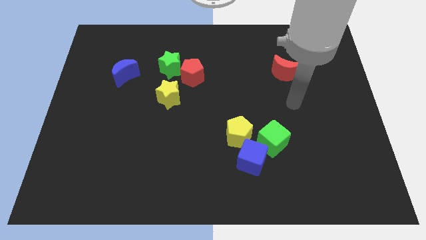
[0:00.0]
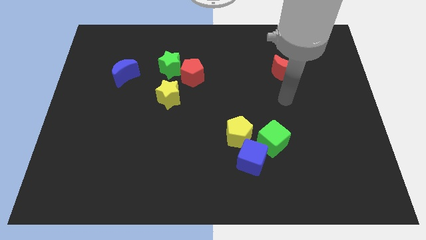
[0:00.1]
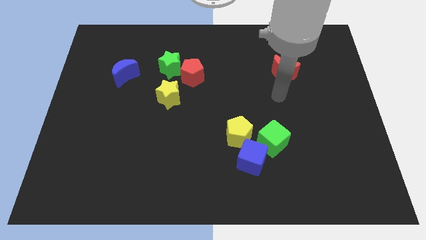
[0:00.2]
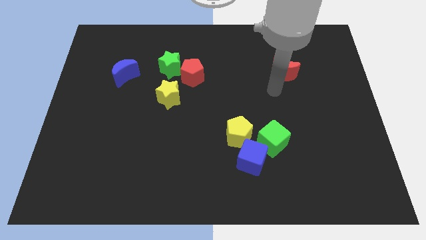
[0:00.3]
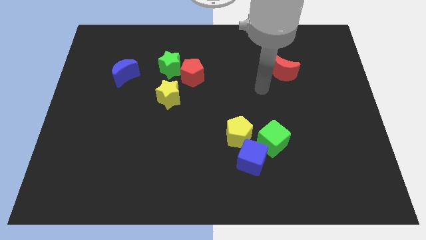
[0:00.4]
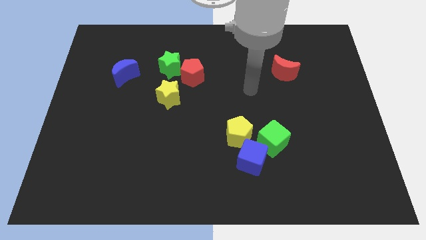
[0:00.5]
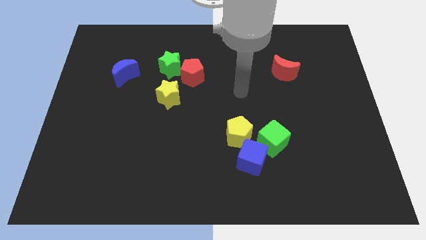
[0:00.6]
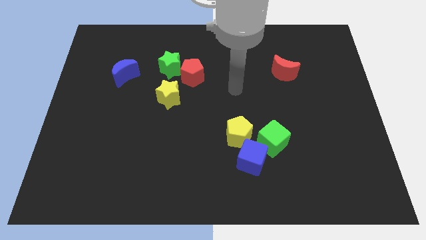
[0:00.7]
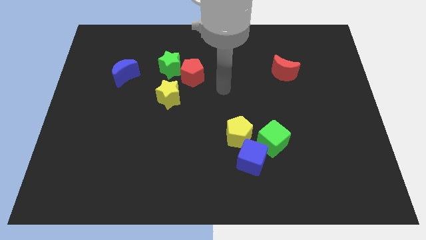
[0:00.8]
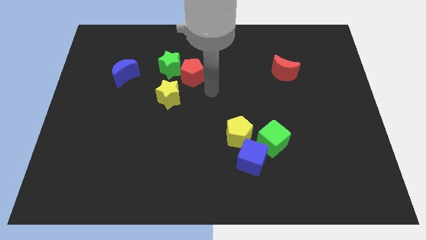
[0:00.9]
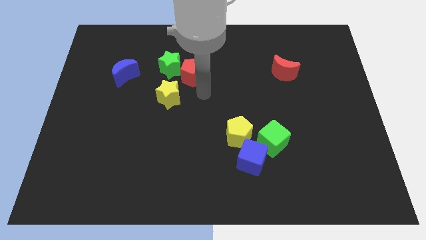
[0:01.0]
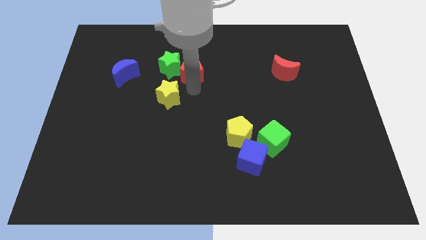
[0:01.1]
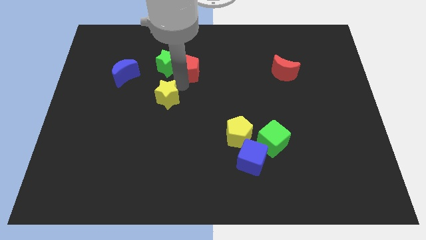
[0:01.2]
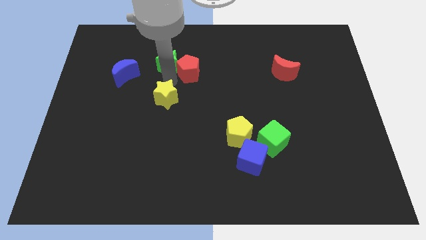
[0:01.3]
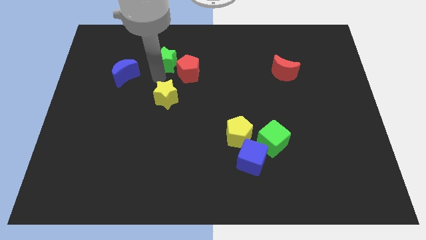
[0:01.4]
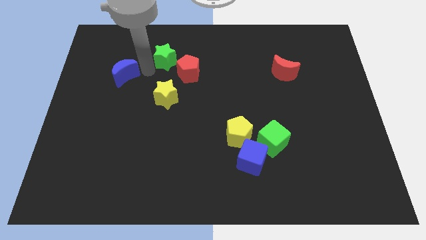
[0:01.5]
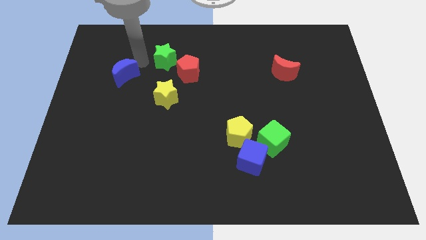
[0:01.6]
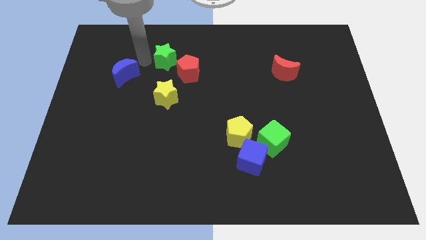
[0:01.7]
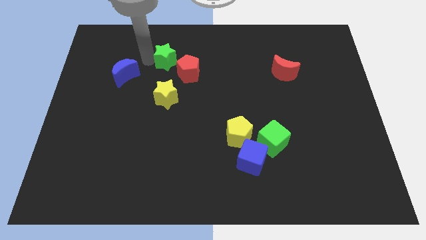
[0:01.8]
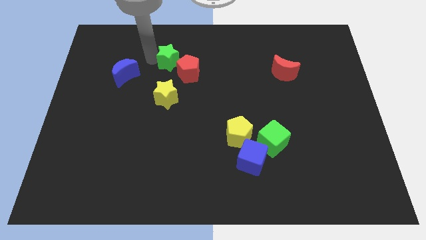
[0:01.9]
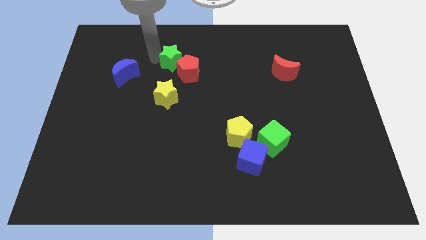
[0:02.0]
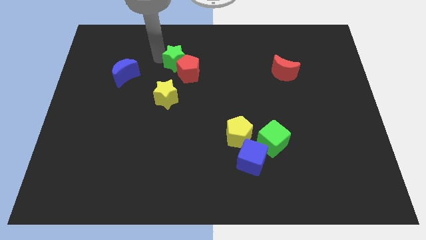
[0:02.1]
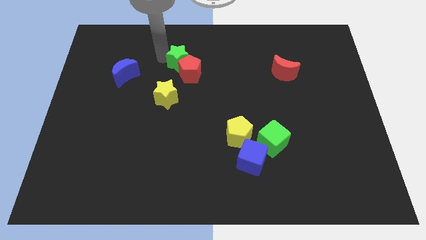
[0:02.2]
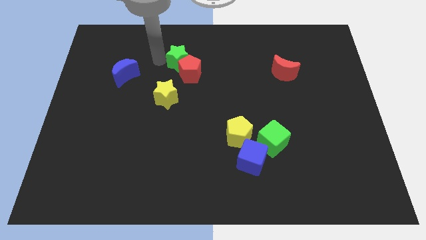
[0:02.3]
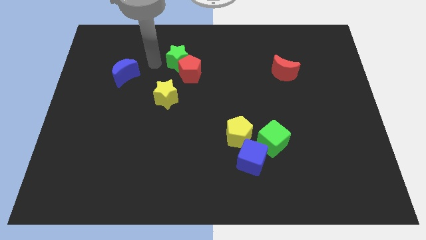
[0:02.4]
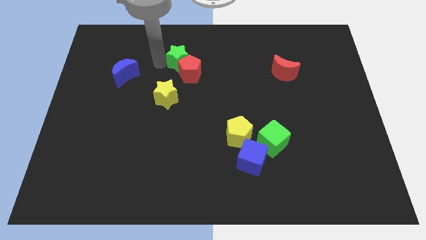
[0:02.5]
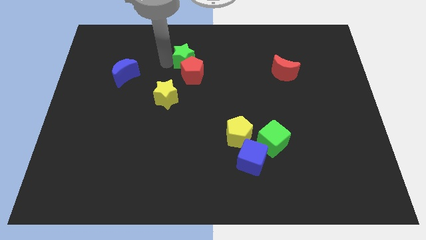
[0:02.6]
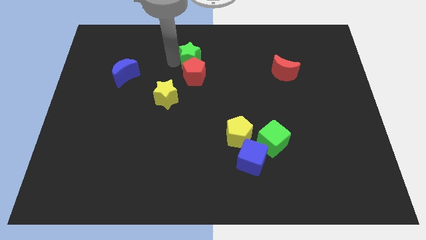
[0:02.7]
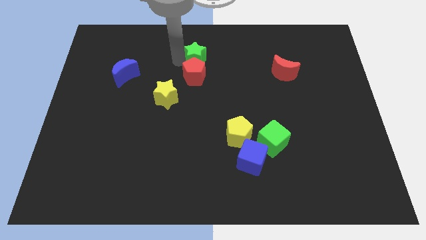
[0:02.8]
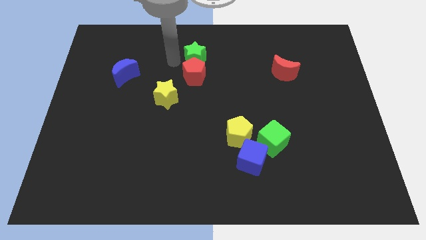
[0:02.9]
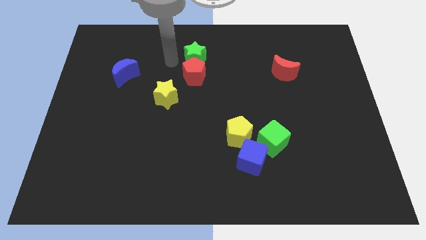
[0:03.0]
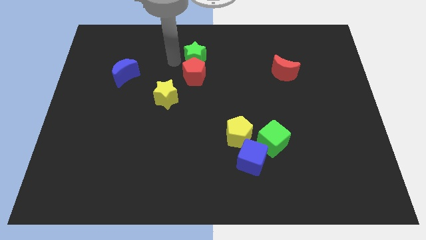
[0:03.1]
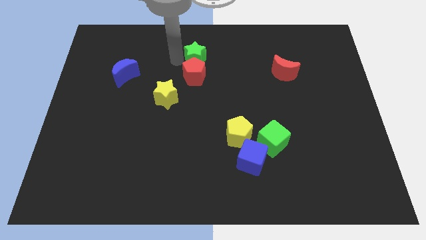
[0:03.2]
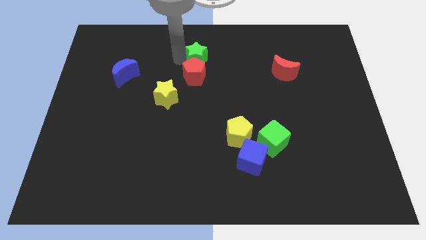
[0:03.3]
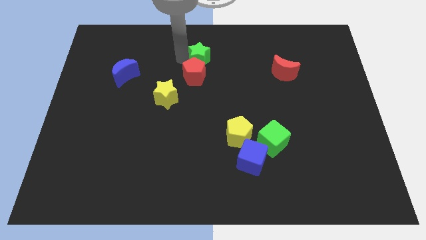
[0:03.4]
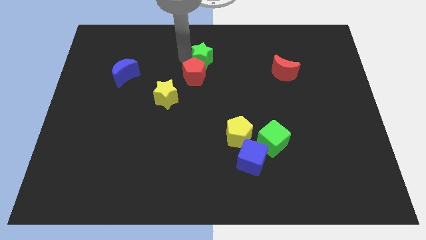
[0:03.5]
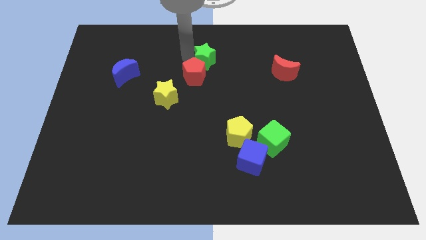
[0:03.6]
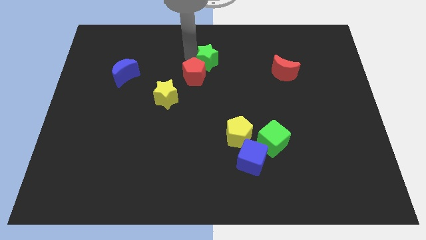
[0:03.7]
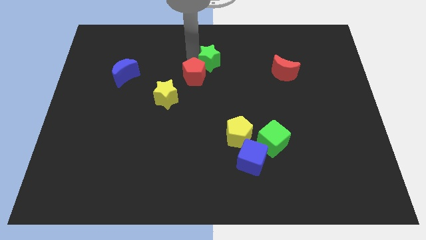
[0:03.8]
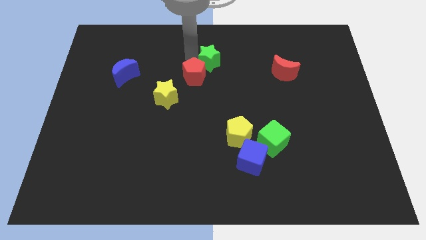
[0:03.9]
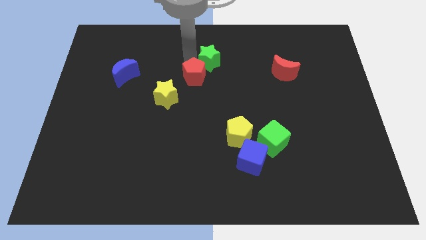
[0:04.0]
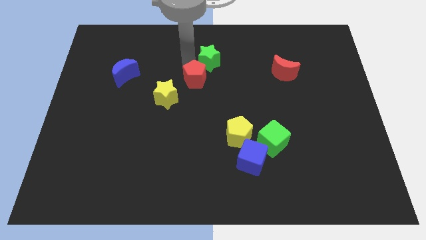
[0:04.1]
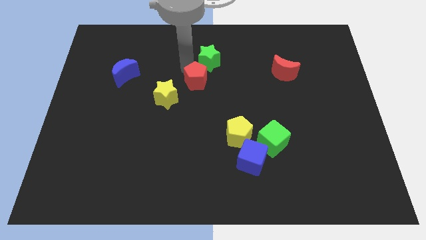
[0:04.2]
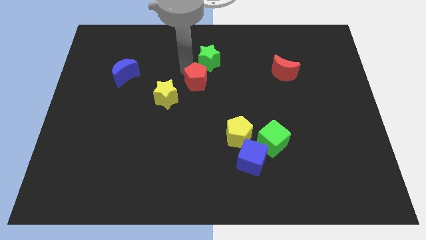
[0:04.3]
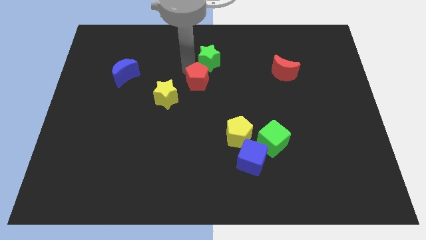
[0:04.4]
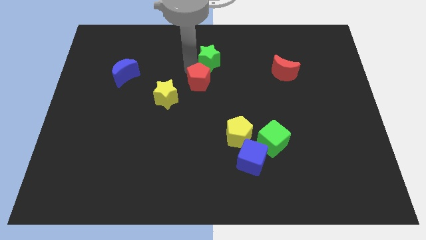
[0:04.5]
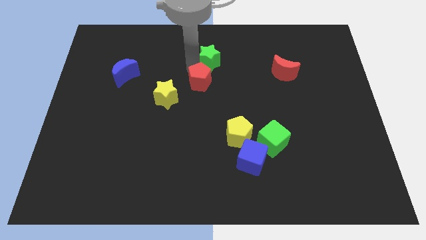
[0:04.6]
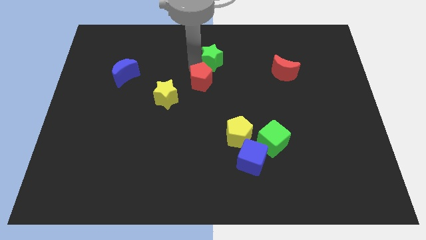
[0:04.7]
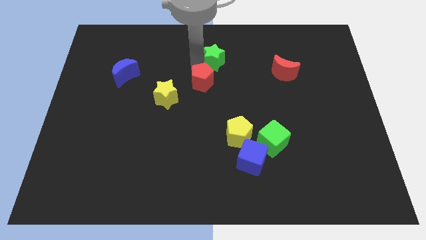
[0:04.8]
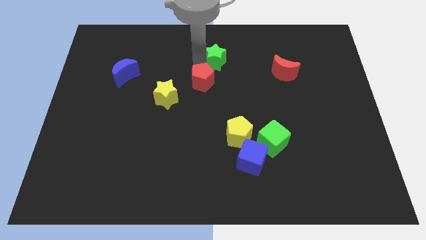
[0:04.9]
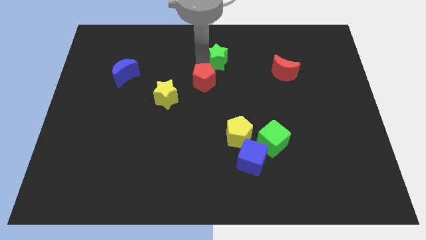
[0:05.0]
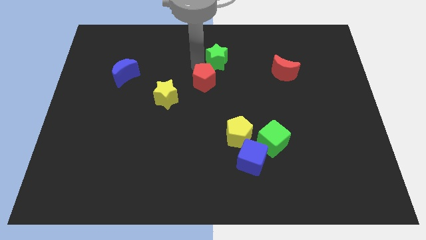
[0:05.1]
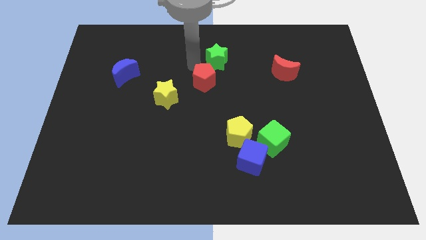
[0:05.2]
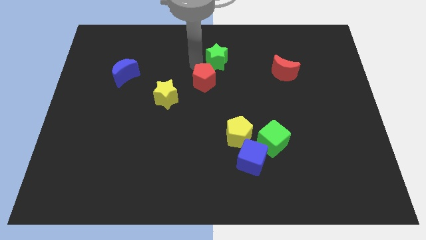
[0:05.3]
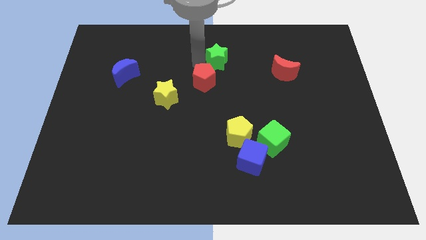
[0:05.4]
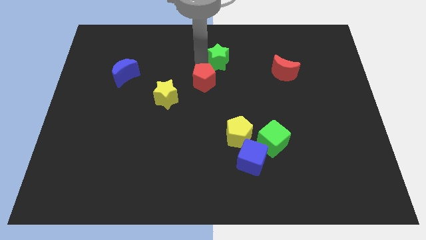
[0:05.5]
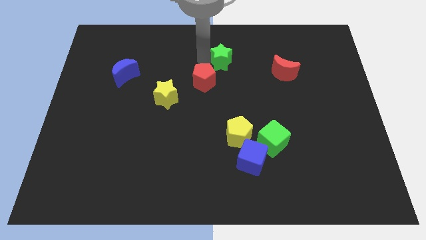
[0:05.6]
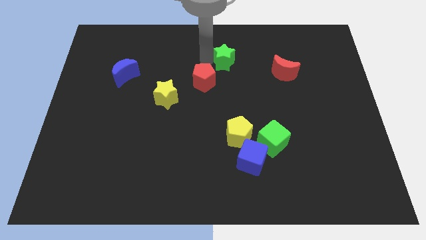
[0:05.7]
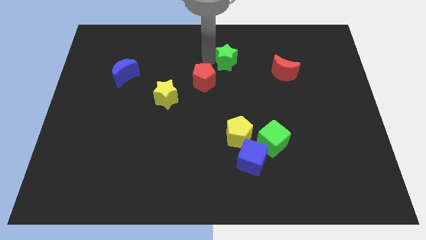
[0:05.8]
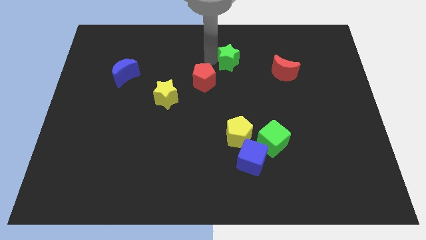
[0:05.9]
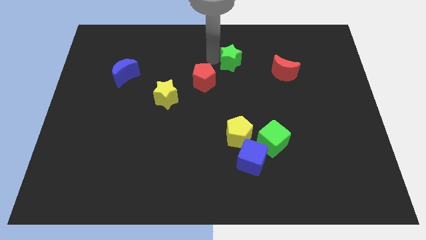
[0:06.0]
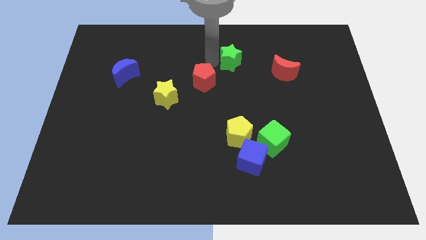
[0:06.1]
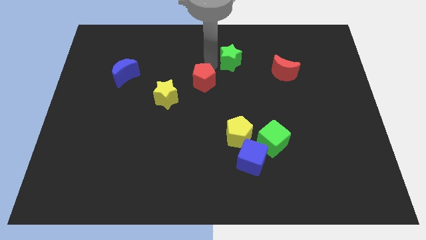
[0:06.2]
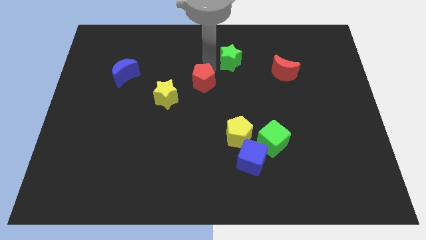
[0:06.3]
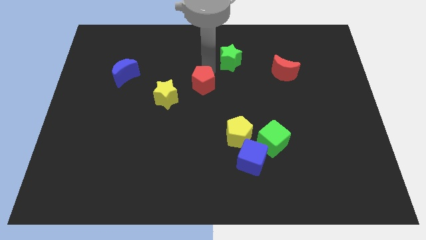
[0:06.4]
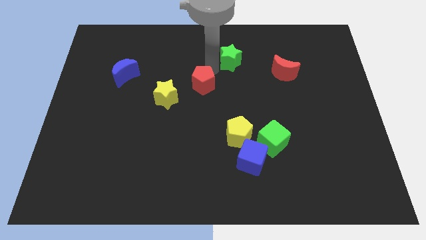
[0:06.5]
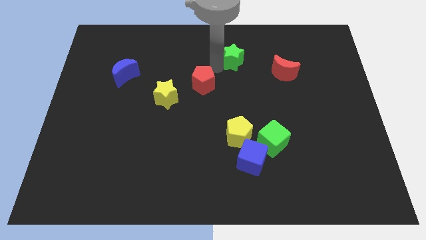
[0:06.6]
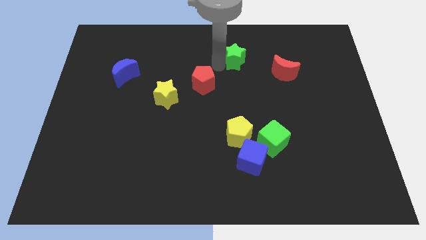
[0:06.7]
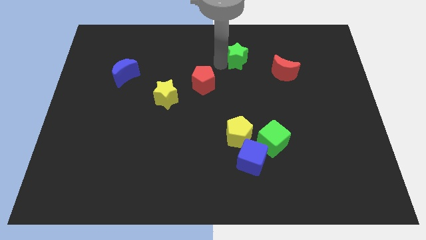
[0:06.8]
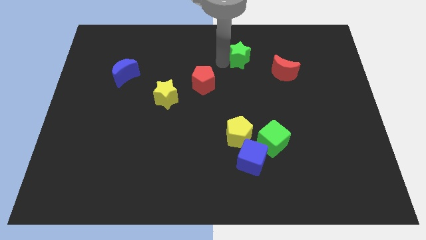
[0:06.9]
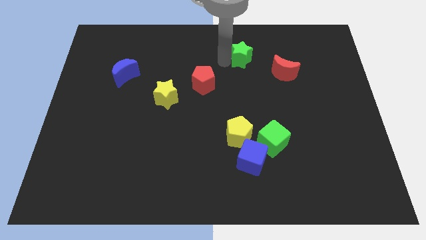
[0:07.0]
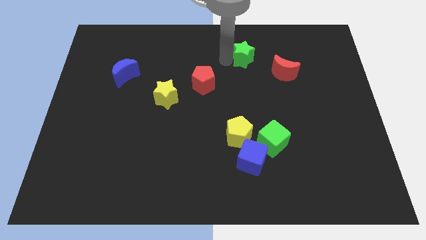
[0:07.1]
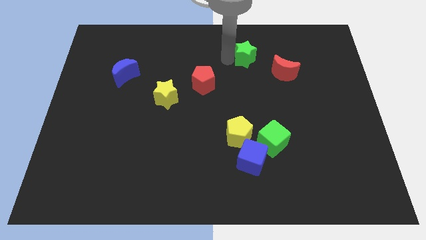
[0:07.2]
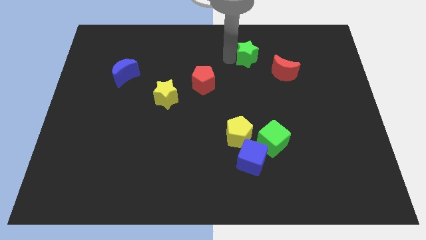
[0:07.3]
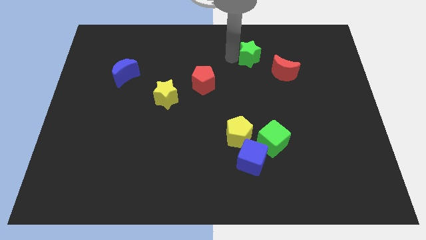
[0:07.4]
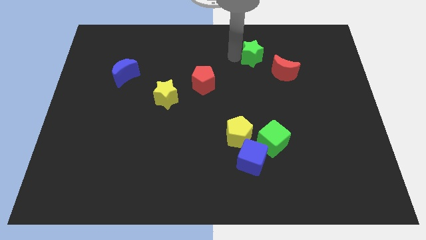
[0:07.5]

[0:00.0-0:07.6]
move the green star right

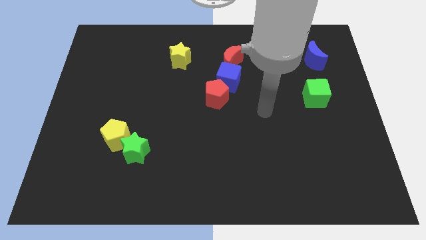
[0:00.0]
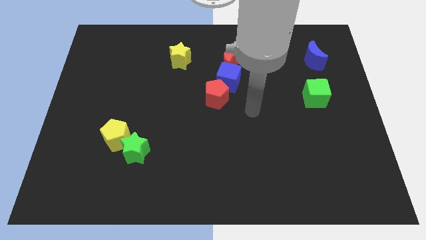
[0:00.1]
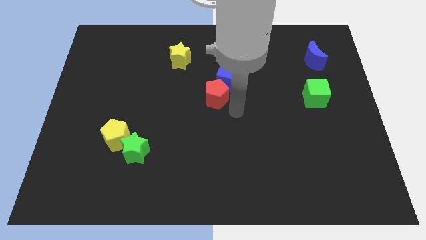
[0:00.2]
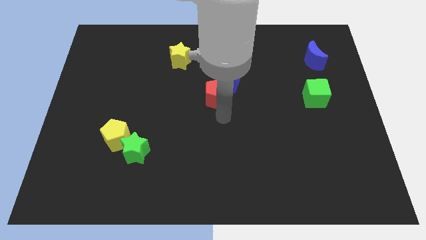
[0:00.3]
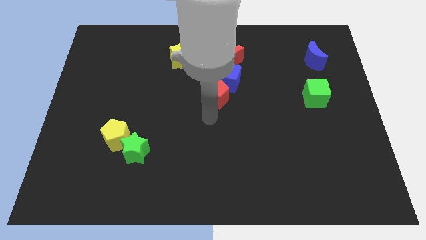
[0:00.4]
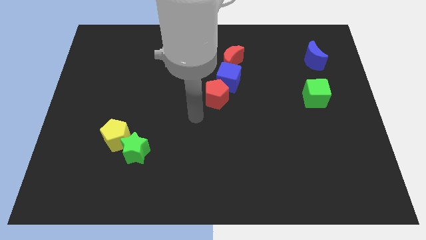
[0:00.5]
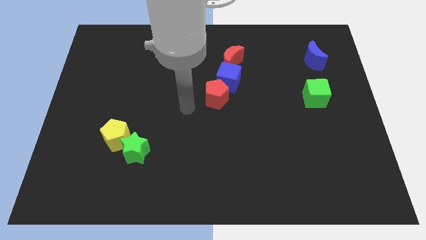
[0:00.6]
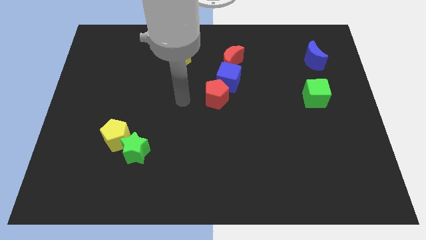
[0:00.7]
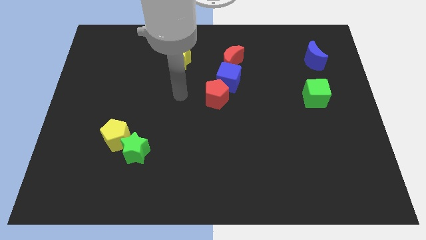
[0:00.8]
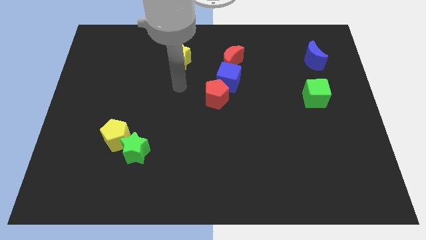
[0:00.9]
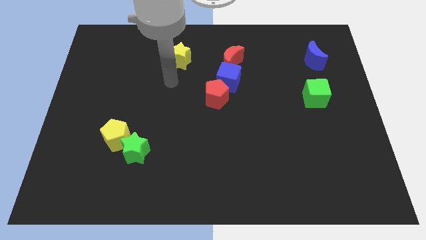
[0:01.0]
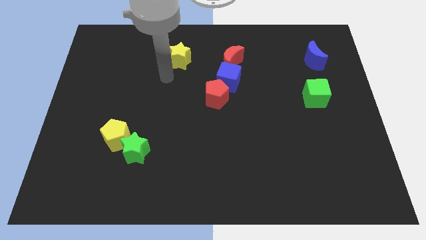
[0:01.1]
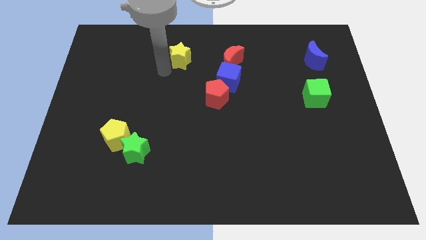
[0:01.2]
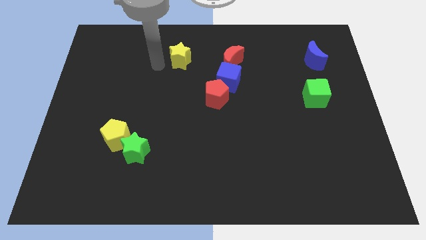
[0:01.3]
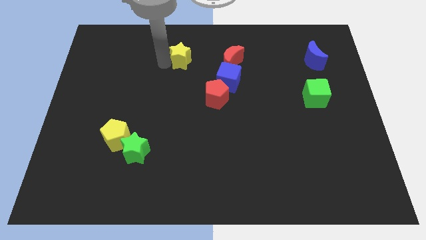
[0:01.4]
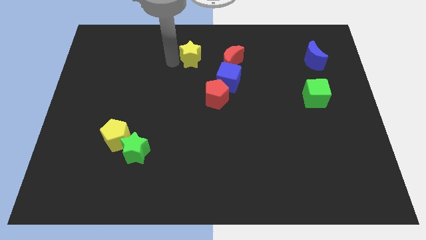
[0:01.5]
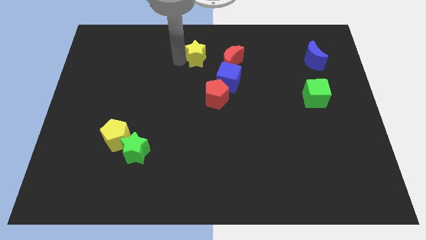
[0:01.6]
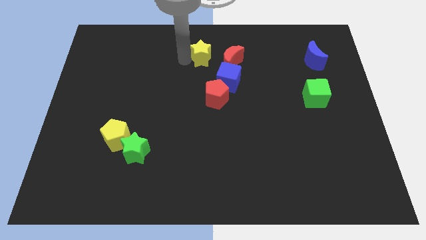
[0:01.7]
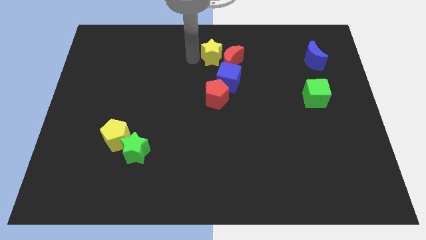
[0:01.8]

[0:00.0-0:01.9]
push the yellow star slightly right
